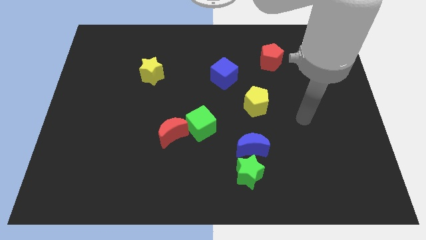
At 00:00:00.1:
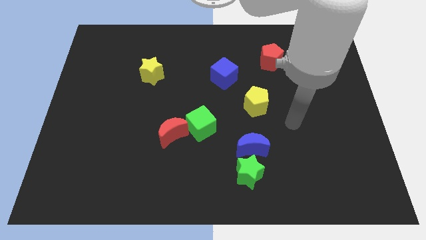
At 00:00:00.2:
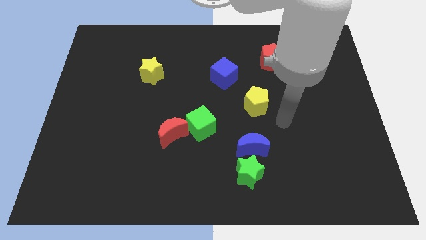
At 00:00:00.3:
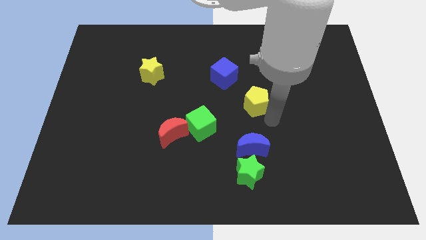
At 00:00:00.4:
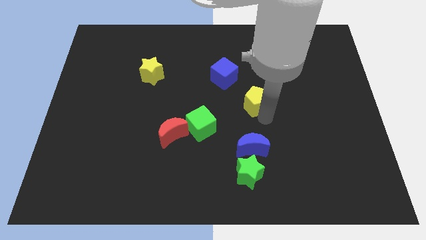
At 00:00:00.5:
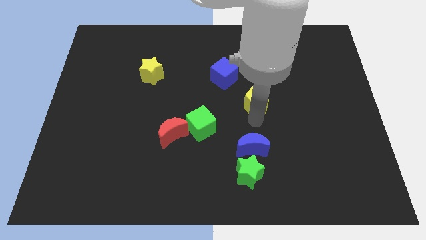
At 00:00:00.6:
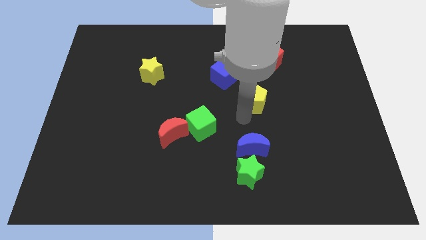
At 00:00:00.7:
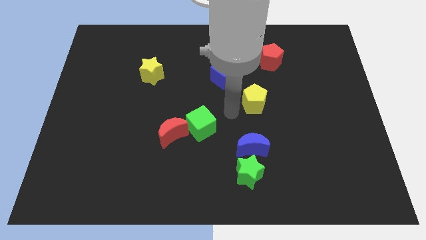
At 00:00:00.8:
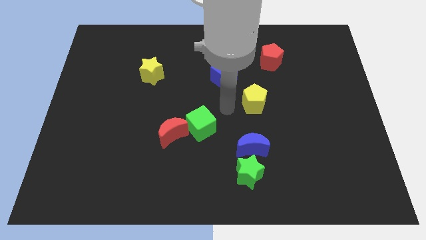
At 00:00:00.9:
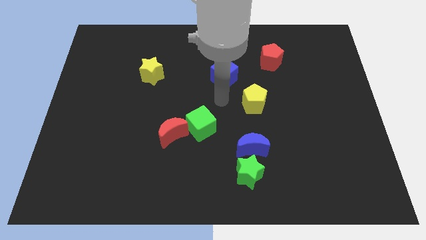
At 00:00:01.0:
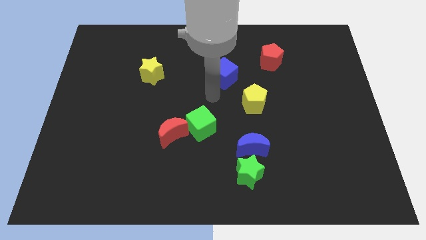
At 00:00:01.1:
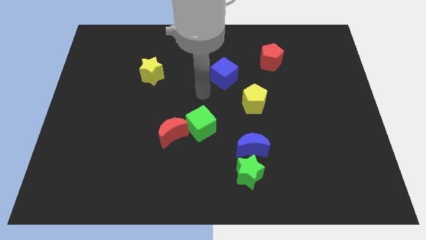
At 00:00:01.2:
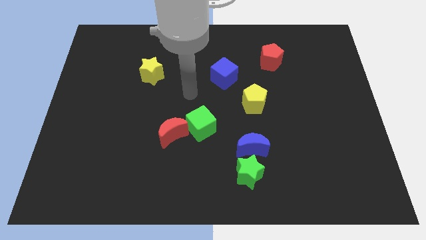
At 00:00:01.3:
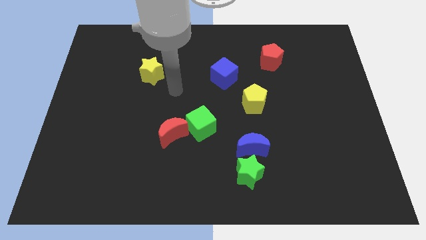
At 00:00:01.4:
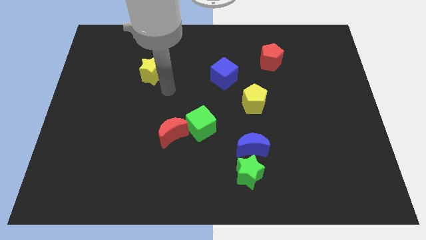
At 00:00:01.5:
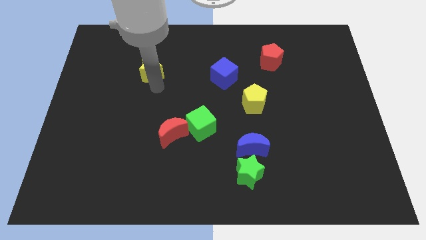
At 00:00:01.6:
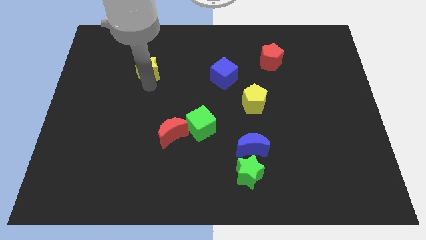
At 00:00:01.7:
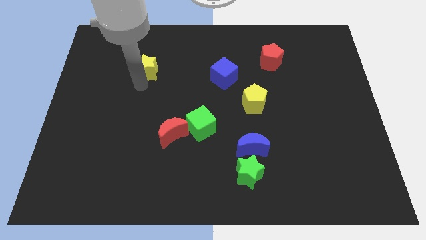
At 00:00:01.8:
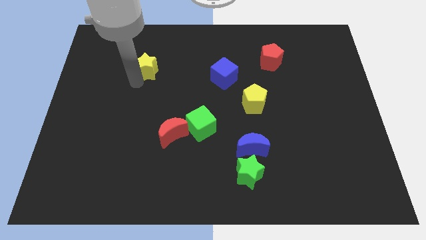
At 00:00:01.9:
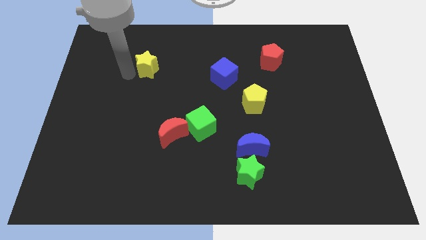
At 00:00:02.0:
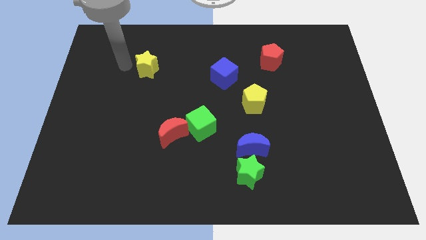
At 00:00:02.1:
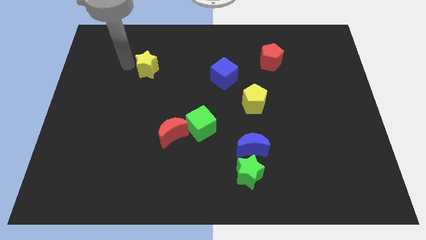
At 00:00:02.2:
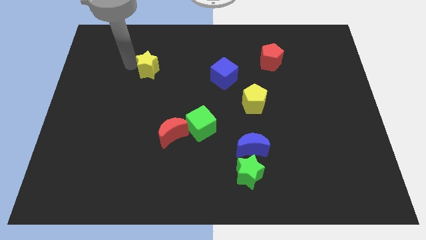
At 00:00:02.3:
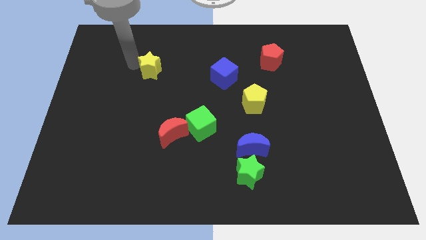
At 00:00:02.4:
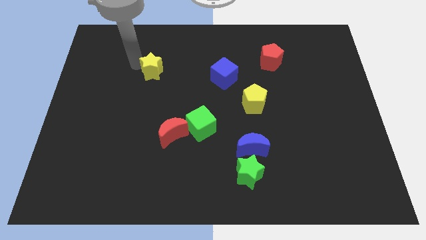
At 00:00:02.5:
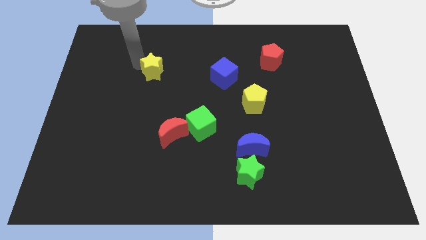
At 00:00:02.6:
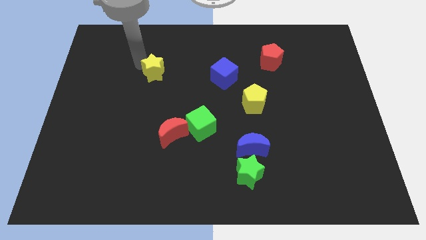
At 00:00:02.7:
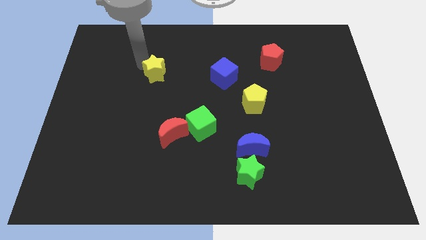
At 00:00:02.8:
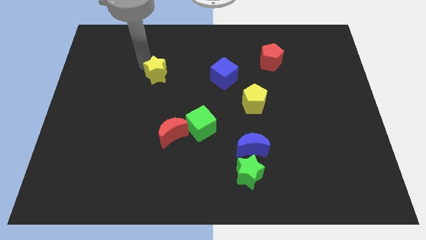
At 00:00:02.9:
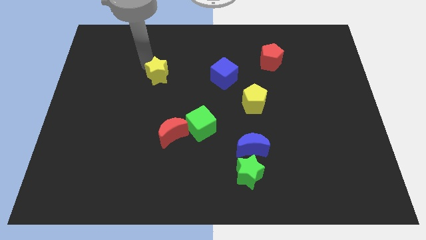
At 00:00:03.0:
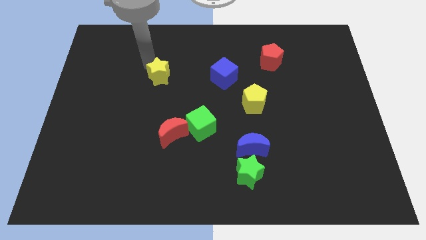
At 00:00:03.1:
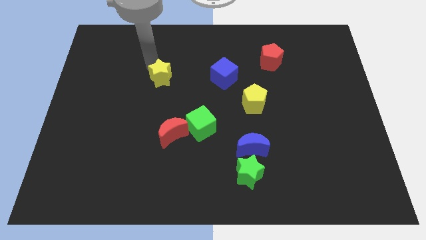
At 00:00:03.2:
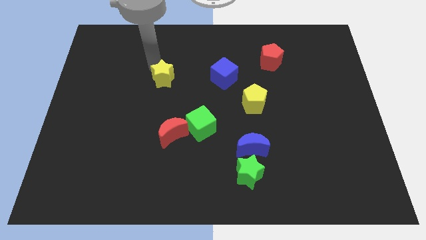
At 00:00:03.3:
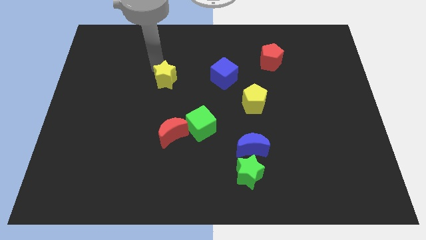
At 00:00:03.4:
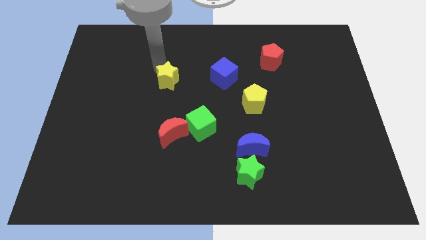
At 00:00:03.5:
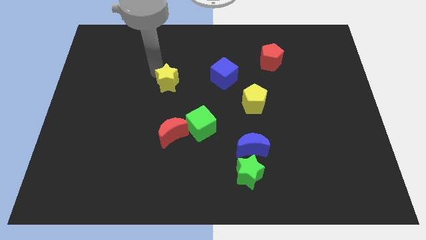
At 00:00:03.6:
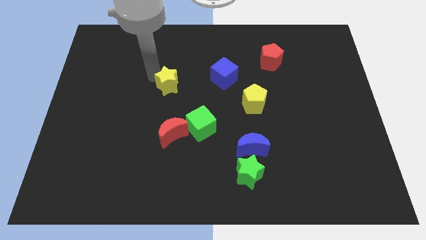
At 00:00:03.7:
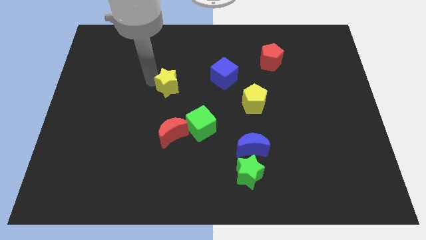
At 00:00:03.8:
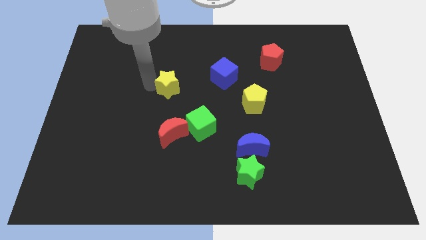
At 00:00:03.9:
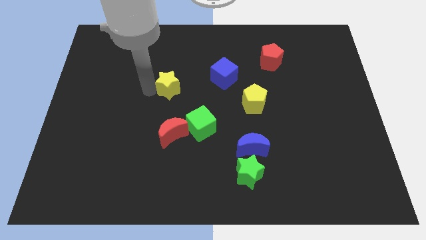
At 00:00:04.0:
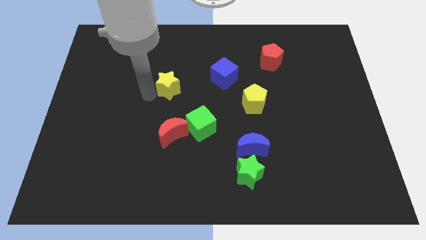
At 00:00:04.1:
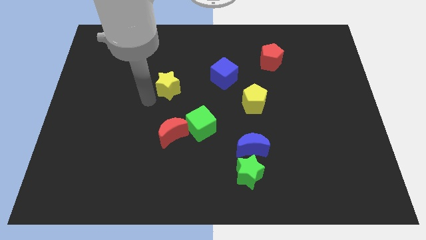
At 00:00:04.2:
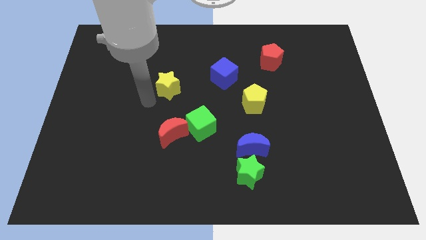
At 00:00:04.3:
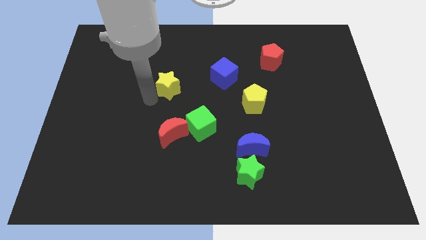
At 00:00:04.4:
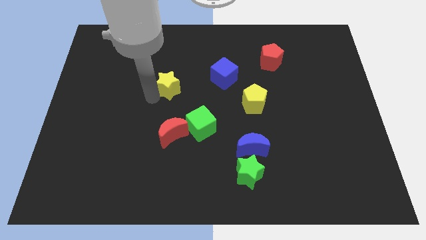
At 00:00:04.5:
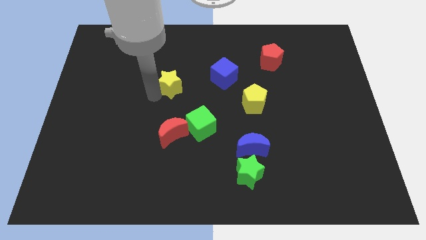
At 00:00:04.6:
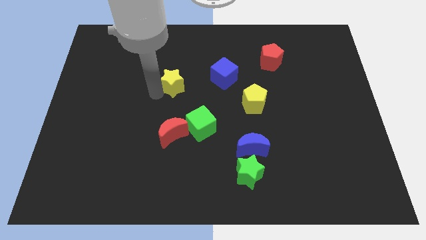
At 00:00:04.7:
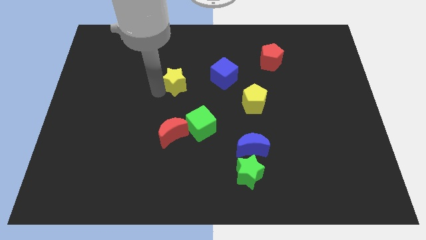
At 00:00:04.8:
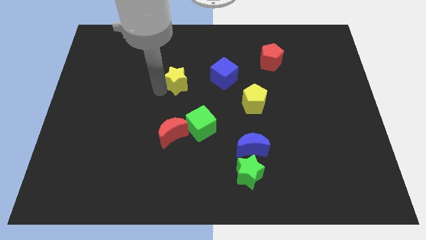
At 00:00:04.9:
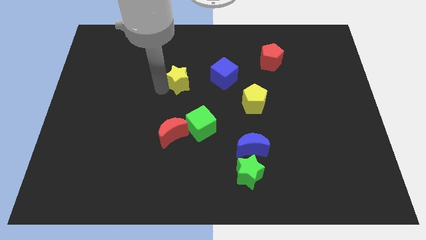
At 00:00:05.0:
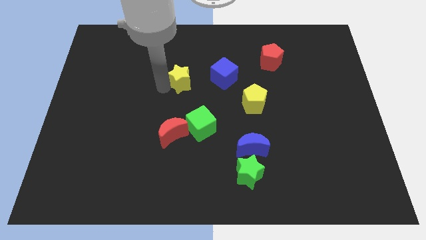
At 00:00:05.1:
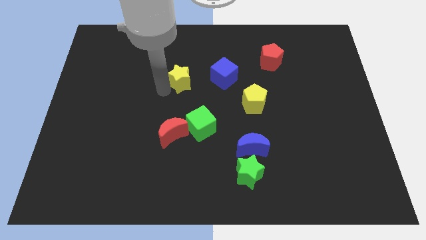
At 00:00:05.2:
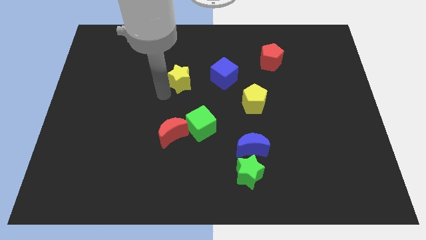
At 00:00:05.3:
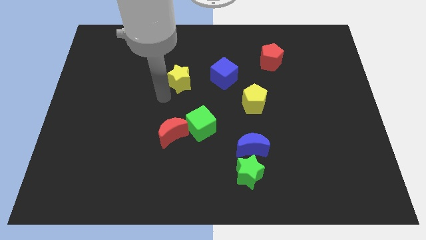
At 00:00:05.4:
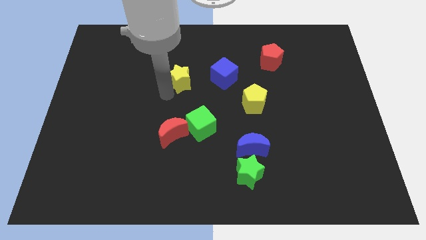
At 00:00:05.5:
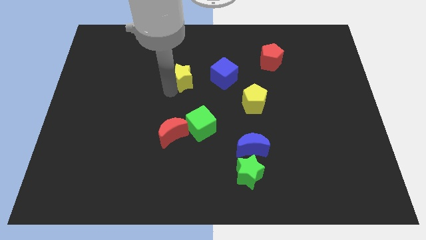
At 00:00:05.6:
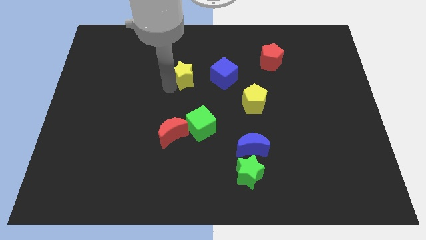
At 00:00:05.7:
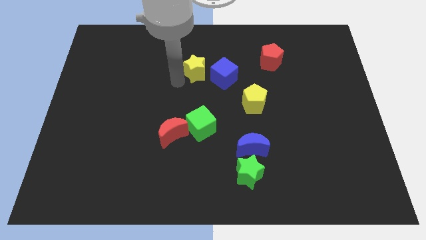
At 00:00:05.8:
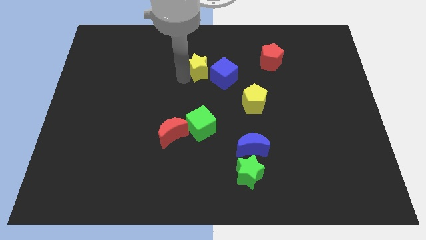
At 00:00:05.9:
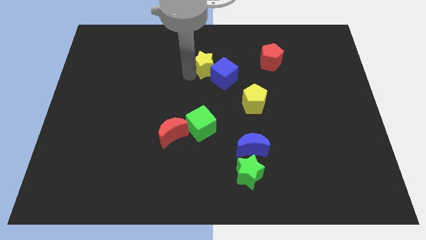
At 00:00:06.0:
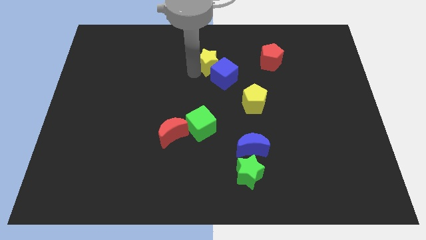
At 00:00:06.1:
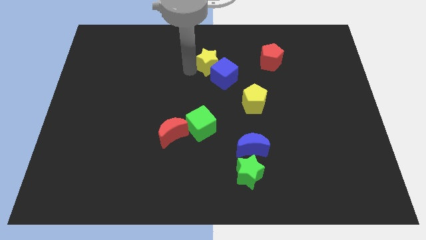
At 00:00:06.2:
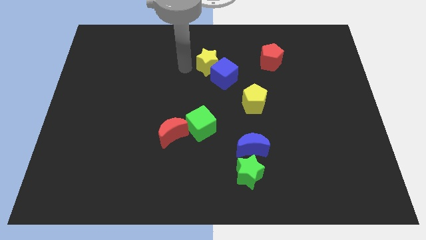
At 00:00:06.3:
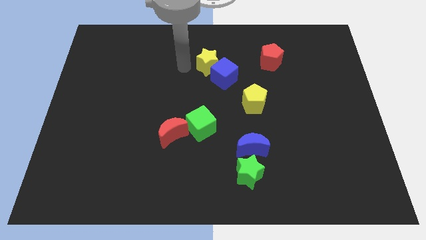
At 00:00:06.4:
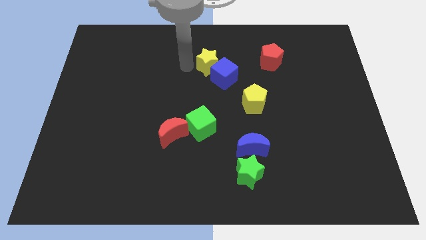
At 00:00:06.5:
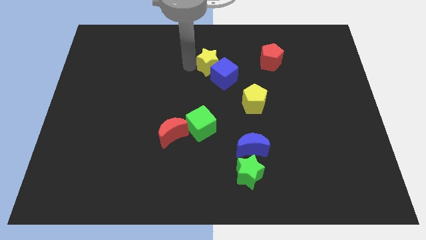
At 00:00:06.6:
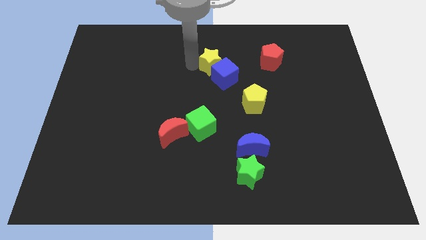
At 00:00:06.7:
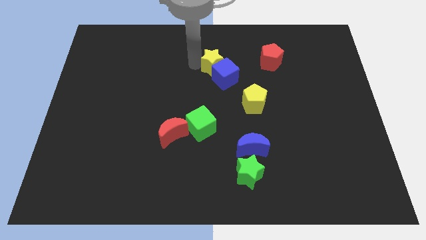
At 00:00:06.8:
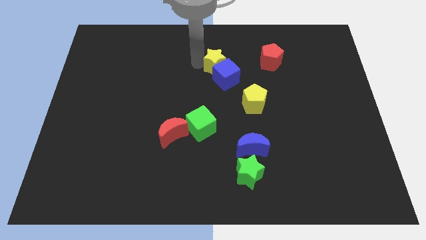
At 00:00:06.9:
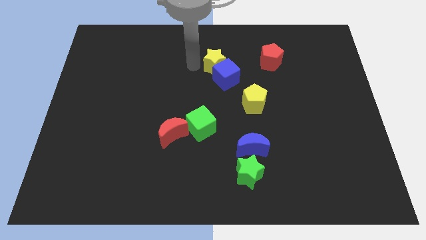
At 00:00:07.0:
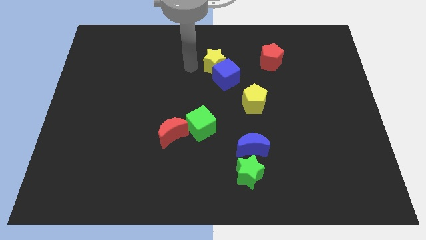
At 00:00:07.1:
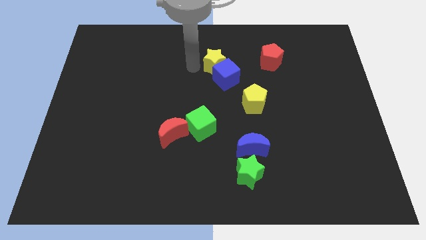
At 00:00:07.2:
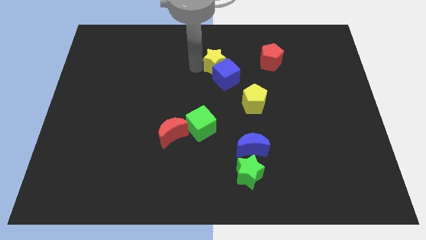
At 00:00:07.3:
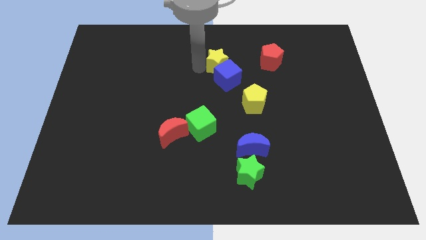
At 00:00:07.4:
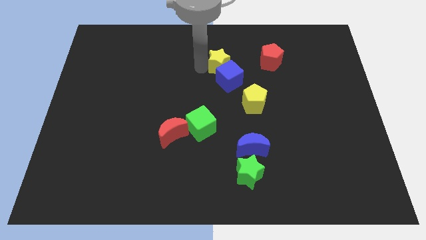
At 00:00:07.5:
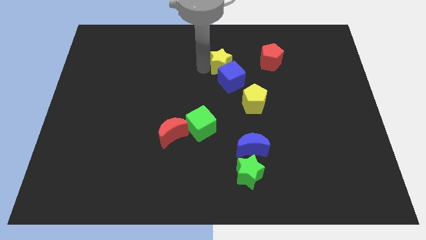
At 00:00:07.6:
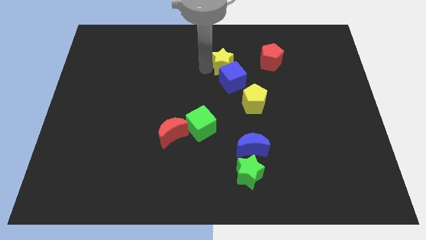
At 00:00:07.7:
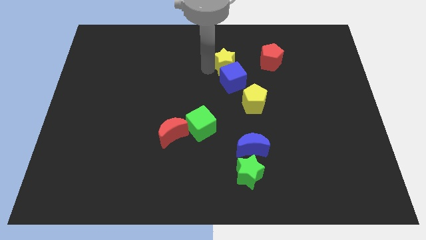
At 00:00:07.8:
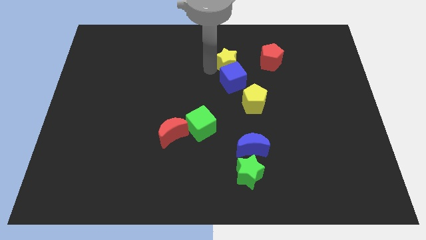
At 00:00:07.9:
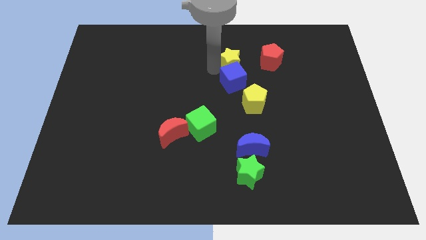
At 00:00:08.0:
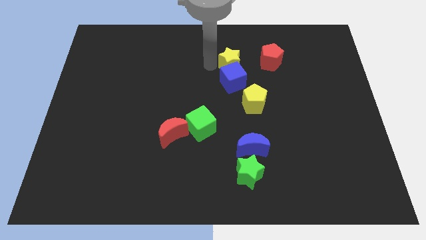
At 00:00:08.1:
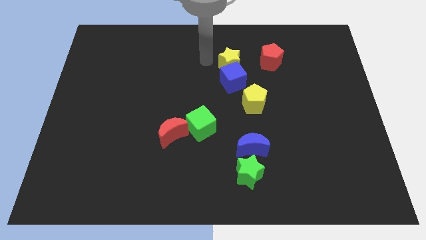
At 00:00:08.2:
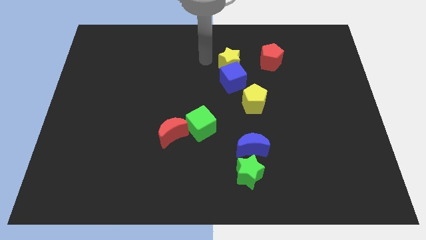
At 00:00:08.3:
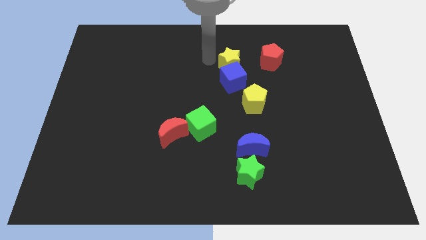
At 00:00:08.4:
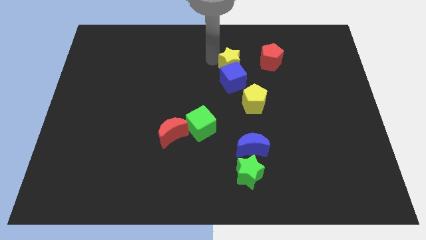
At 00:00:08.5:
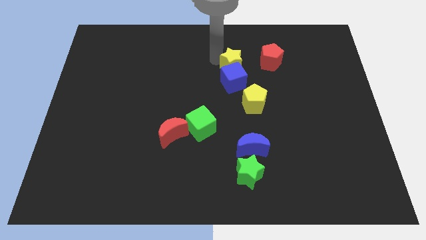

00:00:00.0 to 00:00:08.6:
slide the yellow star to the right
